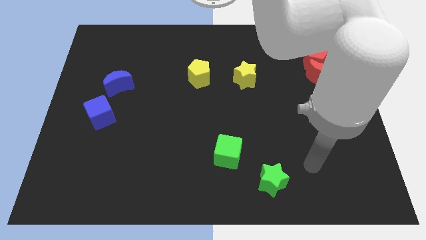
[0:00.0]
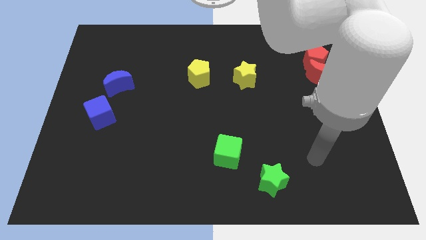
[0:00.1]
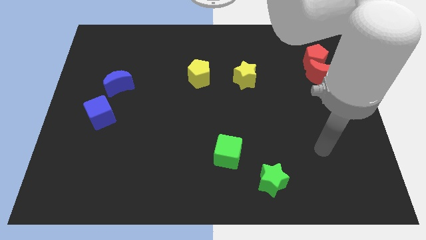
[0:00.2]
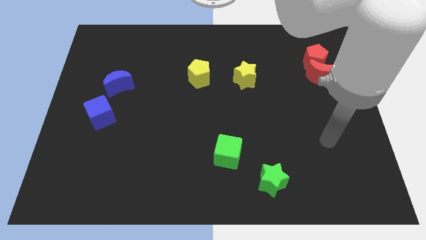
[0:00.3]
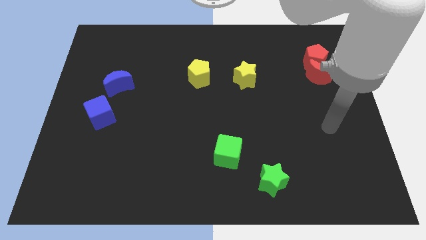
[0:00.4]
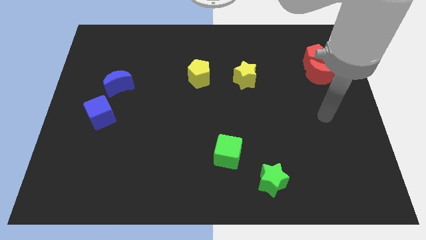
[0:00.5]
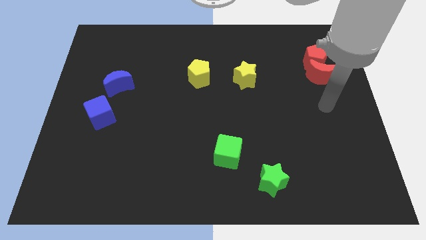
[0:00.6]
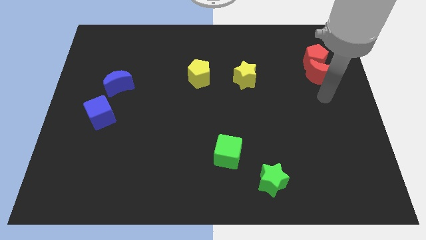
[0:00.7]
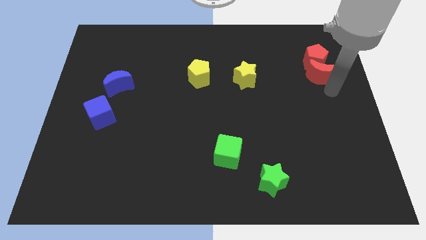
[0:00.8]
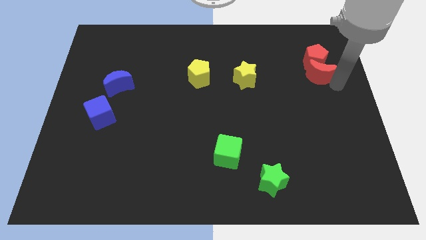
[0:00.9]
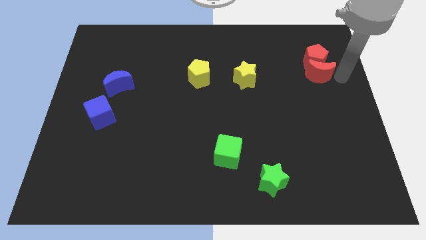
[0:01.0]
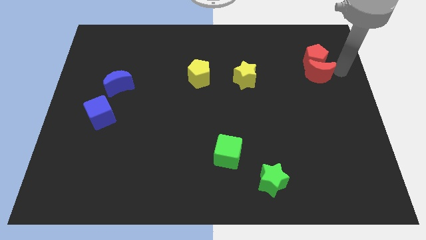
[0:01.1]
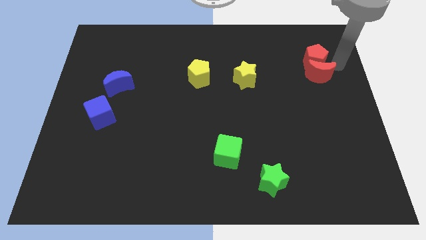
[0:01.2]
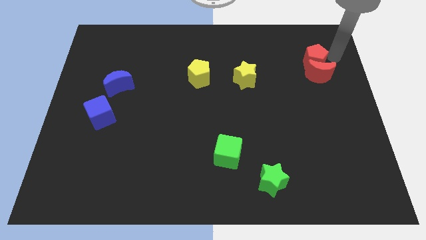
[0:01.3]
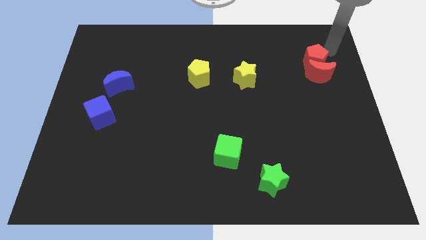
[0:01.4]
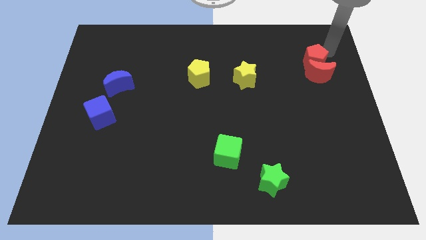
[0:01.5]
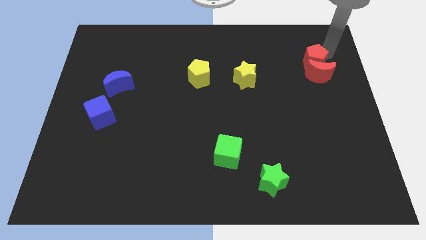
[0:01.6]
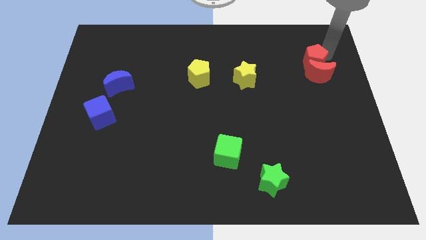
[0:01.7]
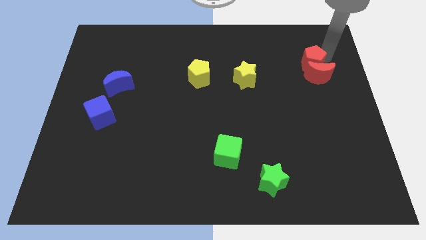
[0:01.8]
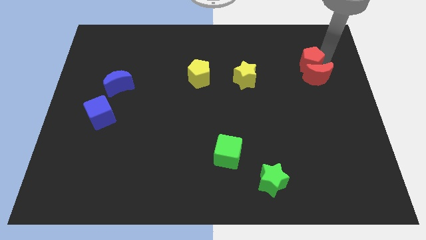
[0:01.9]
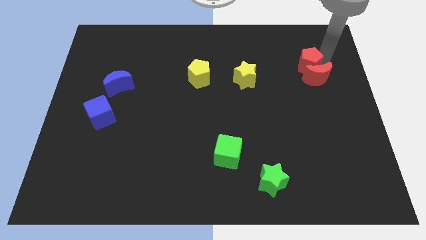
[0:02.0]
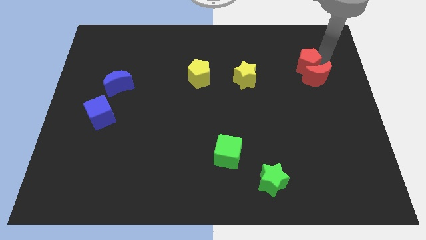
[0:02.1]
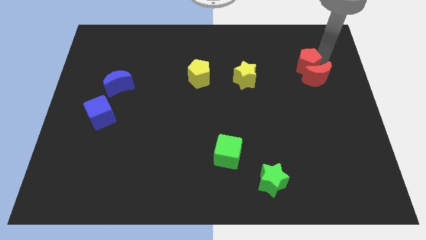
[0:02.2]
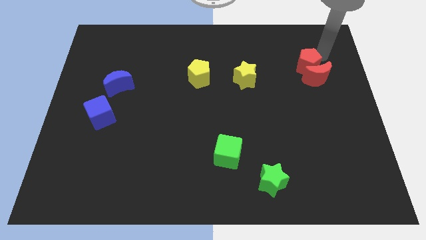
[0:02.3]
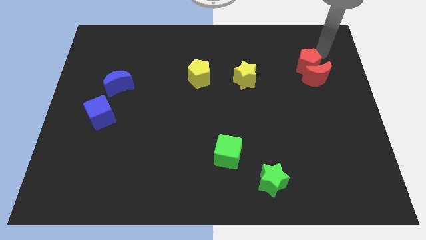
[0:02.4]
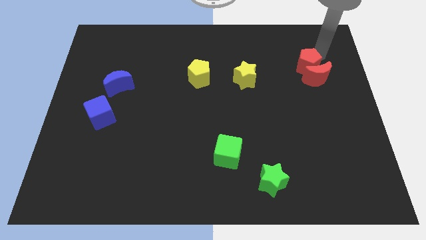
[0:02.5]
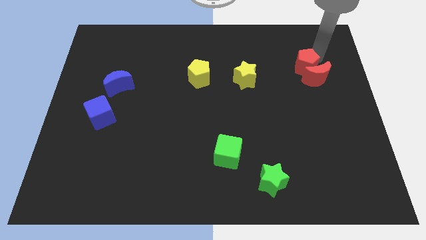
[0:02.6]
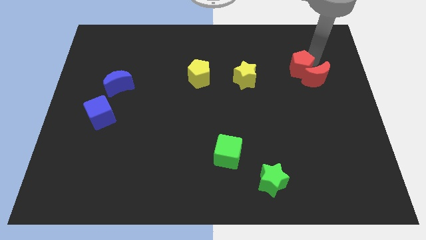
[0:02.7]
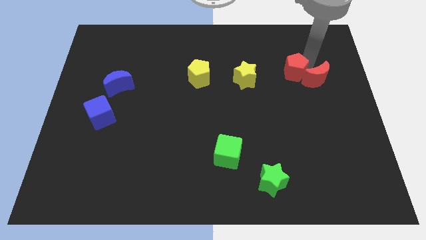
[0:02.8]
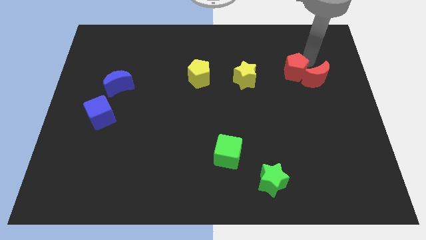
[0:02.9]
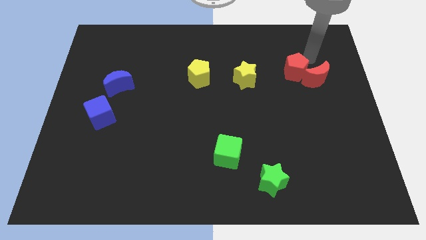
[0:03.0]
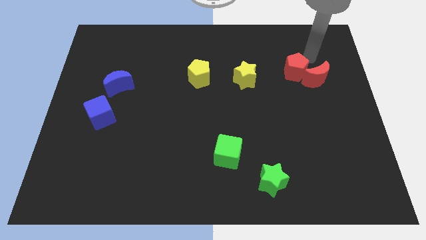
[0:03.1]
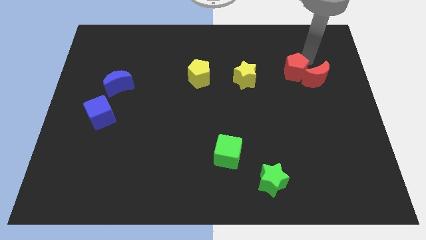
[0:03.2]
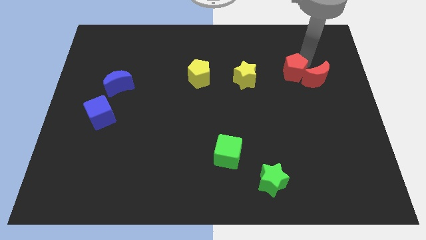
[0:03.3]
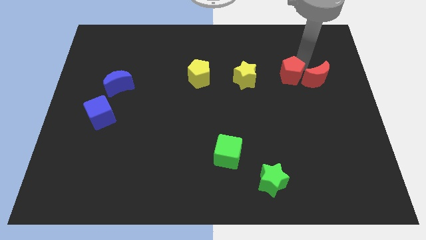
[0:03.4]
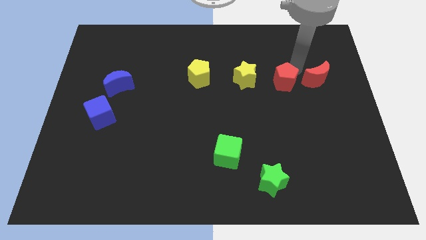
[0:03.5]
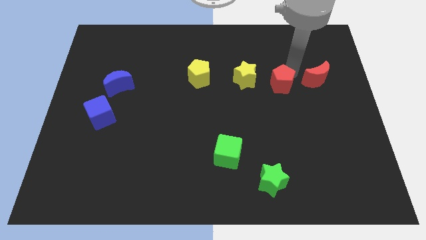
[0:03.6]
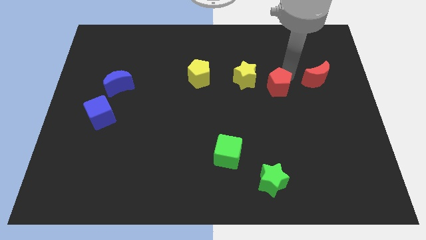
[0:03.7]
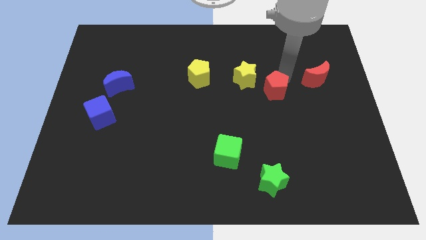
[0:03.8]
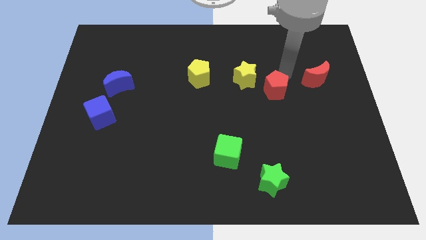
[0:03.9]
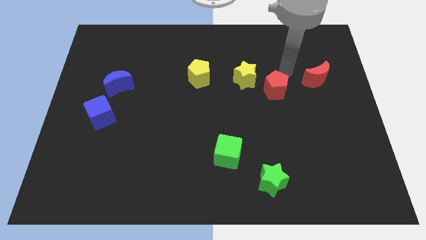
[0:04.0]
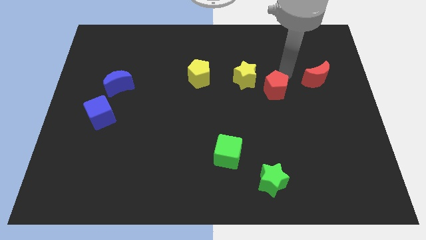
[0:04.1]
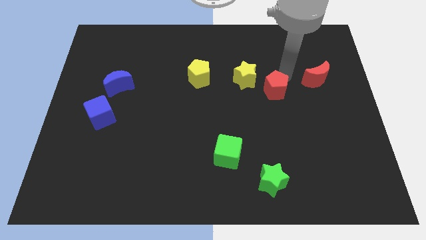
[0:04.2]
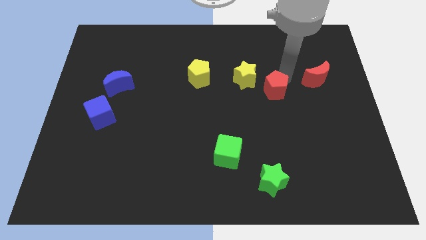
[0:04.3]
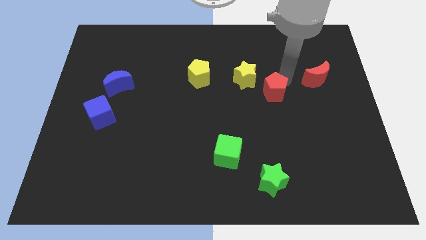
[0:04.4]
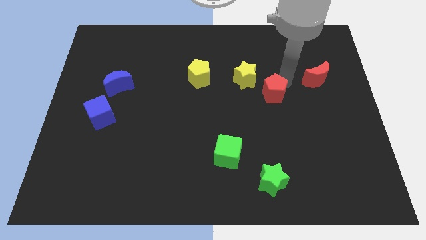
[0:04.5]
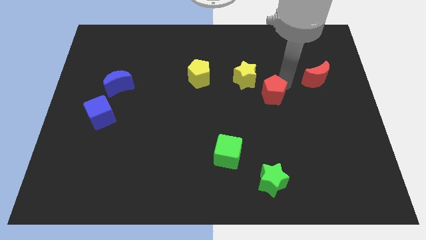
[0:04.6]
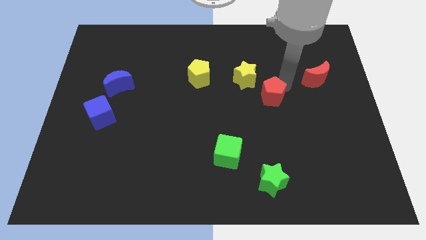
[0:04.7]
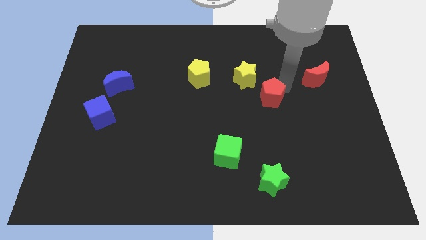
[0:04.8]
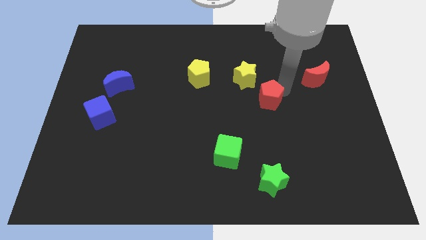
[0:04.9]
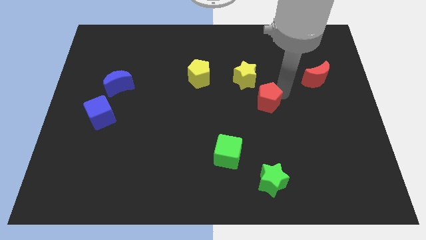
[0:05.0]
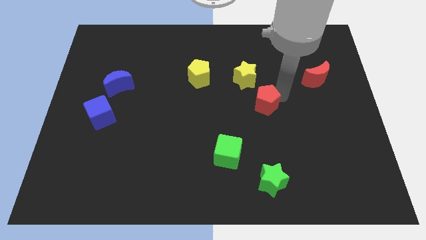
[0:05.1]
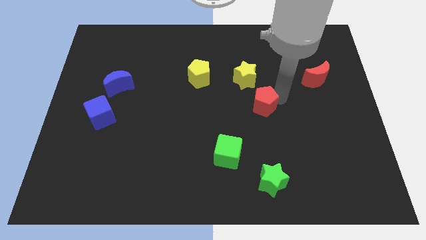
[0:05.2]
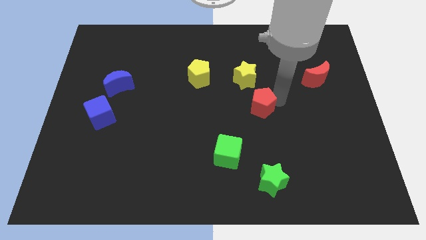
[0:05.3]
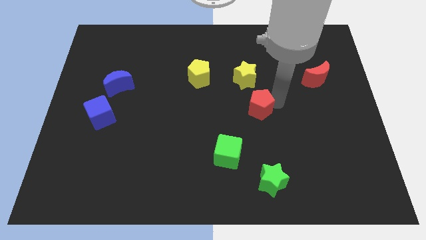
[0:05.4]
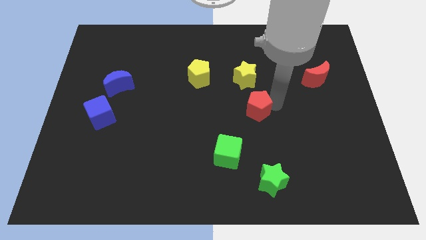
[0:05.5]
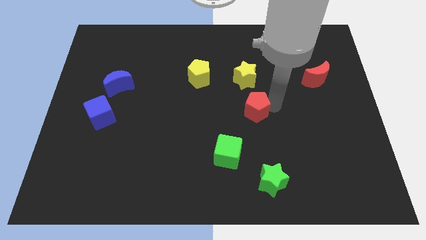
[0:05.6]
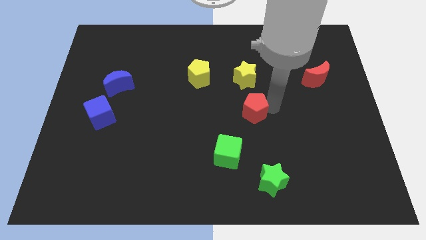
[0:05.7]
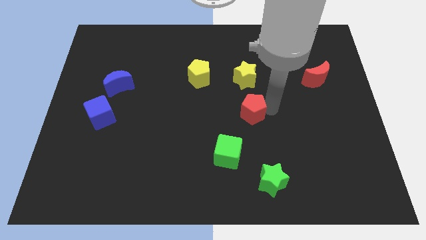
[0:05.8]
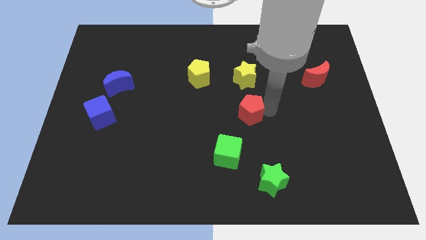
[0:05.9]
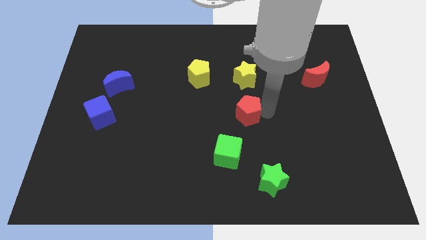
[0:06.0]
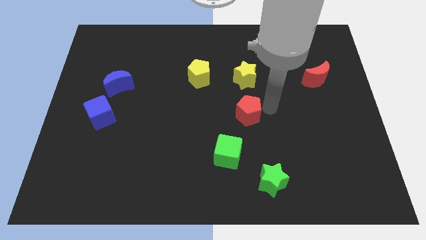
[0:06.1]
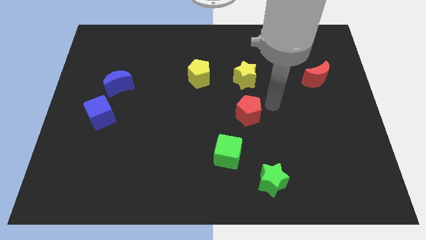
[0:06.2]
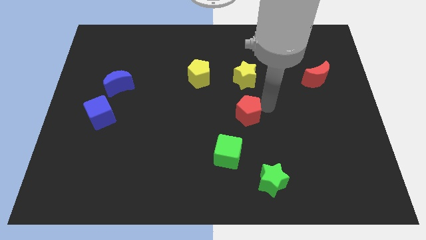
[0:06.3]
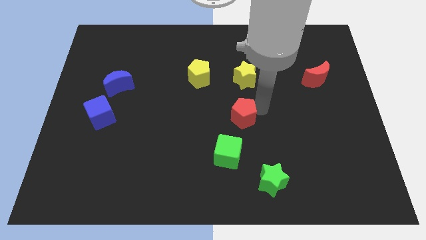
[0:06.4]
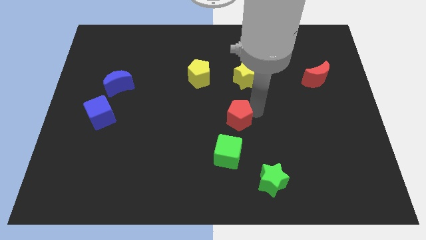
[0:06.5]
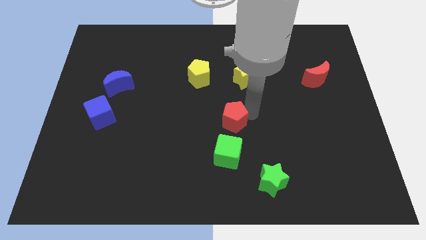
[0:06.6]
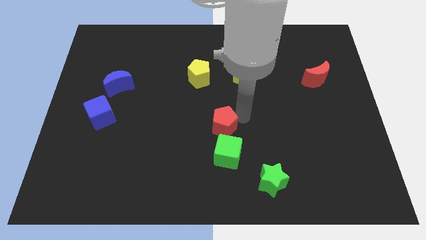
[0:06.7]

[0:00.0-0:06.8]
move the red pentagon diagonally up and to the left of the green cube

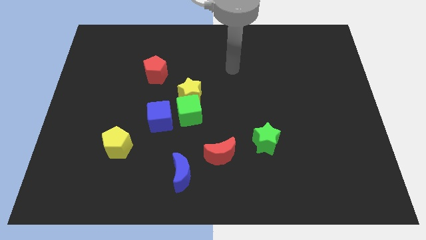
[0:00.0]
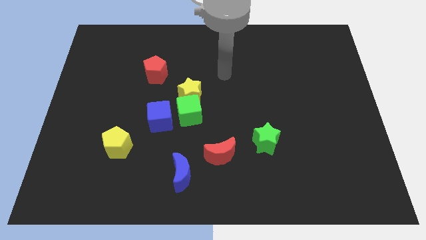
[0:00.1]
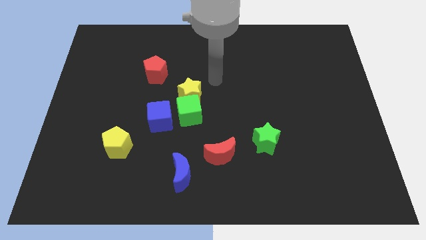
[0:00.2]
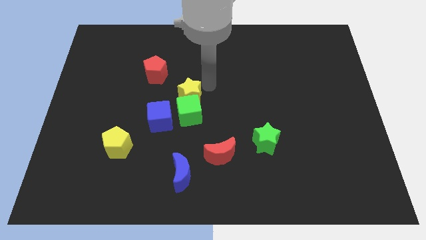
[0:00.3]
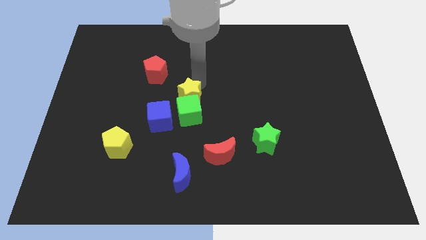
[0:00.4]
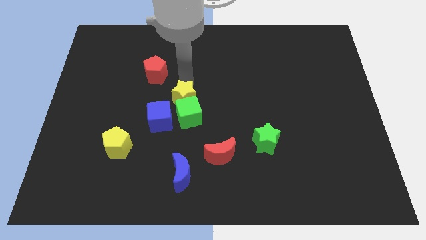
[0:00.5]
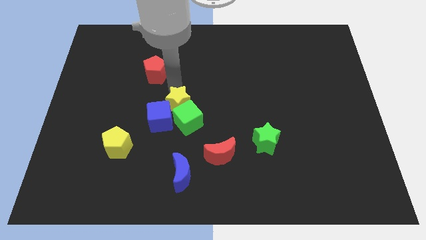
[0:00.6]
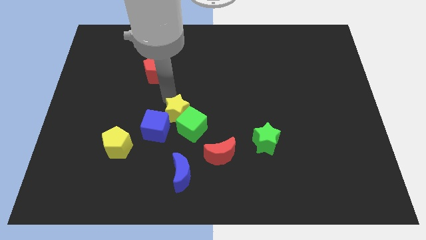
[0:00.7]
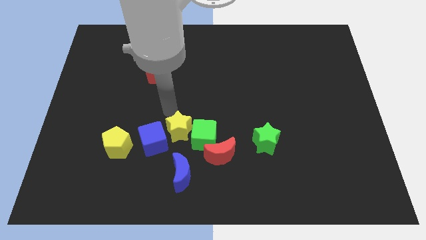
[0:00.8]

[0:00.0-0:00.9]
push the green cube to the top side of the red moon
